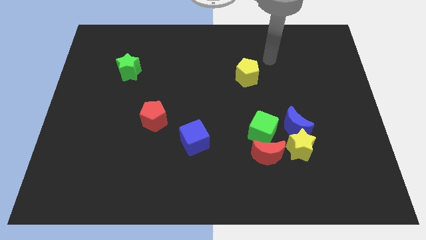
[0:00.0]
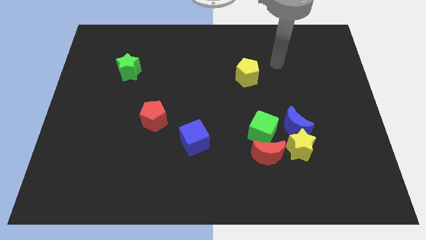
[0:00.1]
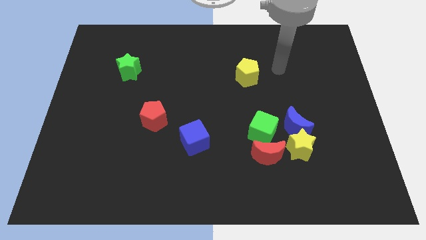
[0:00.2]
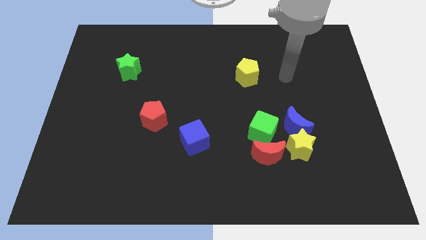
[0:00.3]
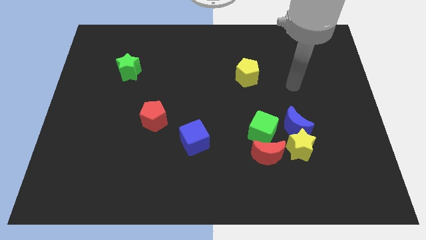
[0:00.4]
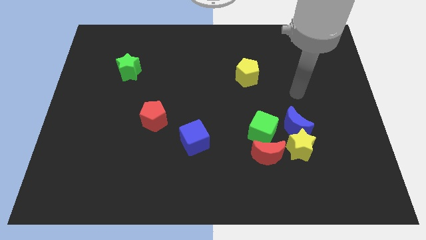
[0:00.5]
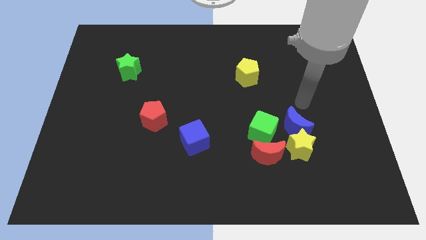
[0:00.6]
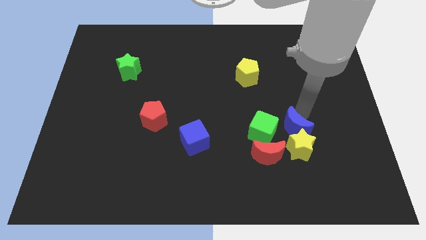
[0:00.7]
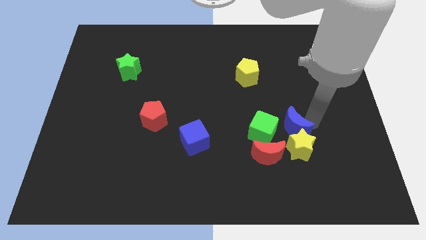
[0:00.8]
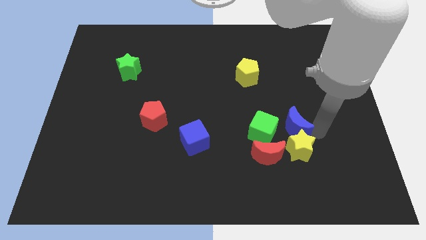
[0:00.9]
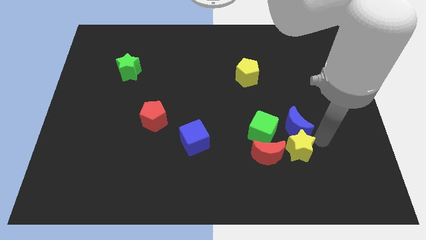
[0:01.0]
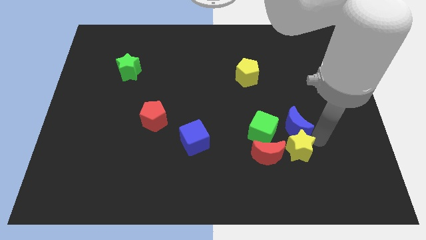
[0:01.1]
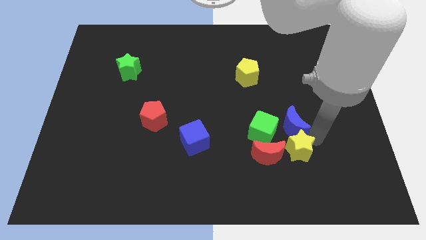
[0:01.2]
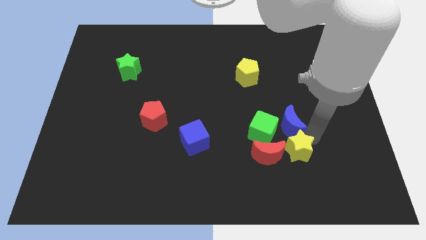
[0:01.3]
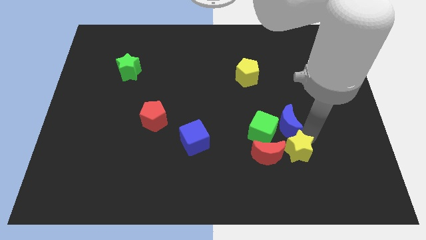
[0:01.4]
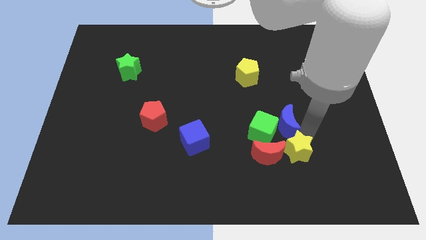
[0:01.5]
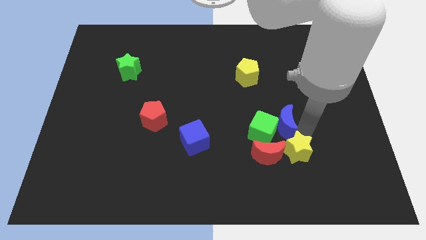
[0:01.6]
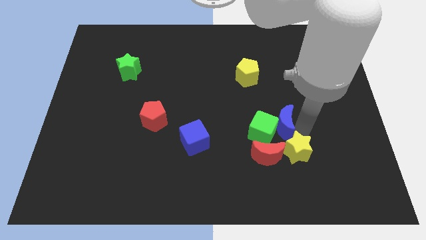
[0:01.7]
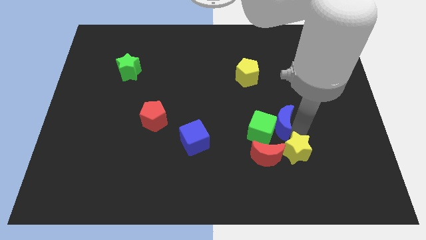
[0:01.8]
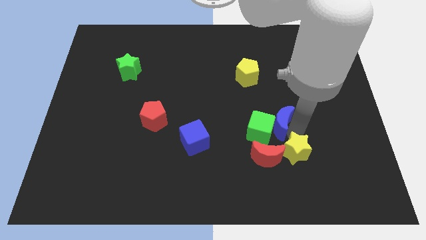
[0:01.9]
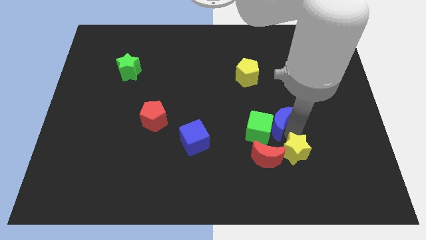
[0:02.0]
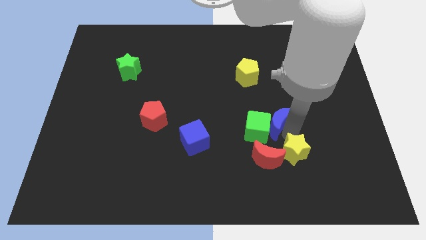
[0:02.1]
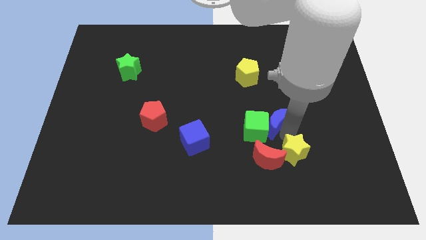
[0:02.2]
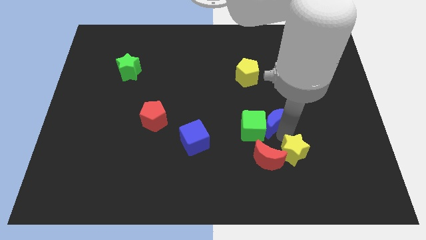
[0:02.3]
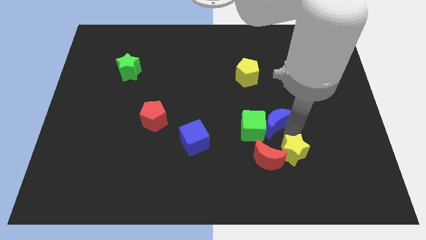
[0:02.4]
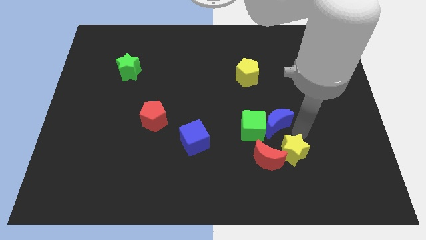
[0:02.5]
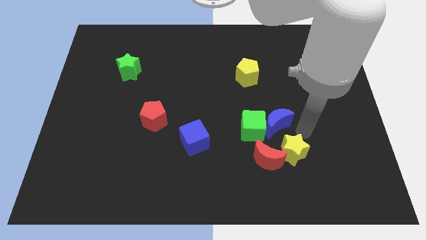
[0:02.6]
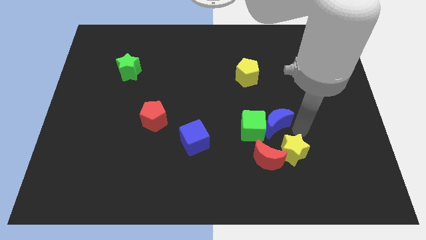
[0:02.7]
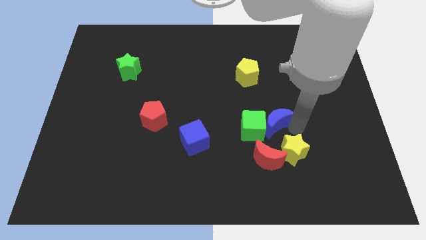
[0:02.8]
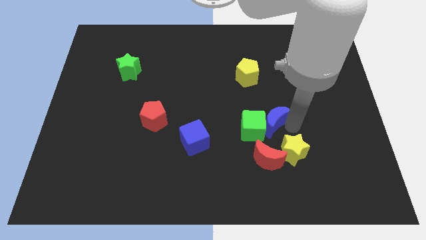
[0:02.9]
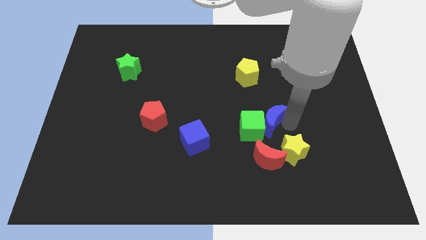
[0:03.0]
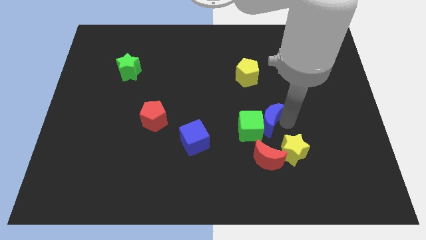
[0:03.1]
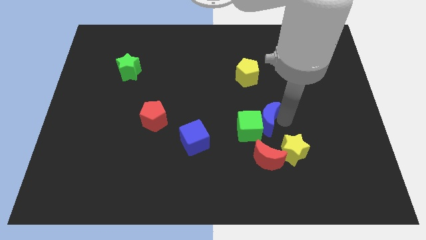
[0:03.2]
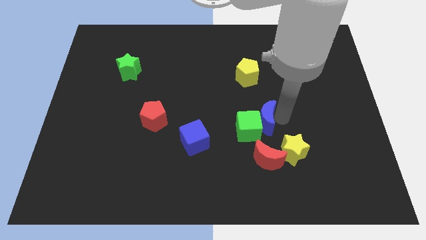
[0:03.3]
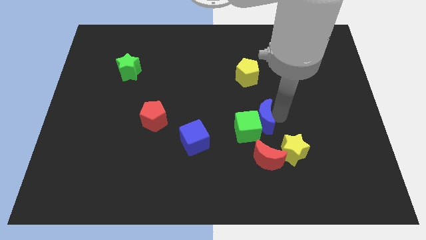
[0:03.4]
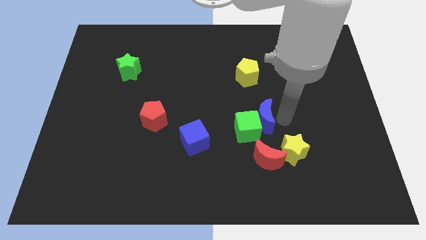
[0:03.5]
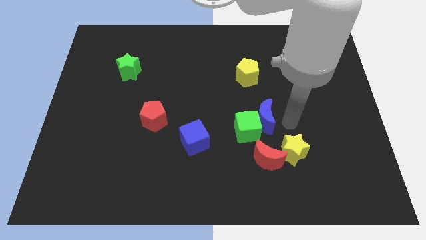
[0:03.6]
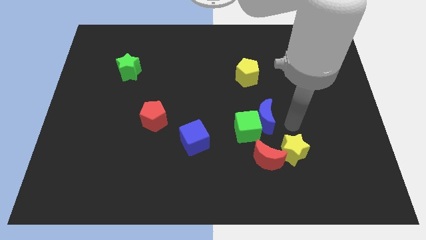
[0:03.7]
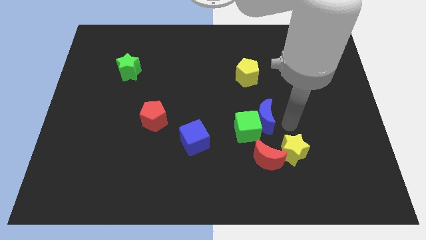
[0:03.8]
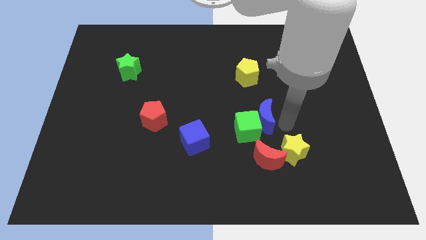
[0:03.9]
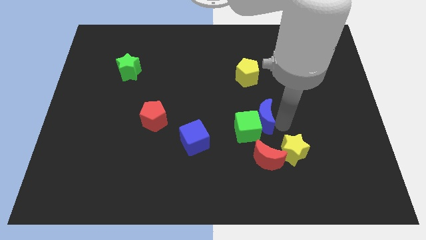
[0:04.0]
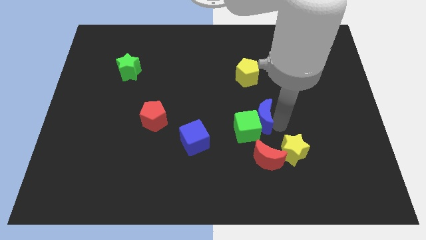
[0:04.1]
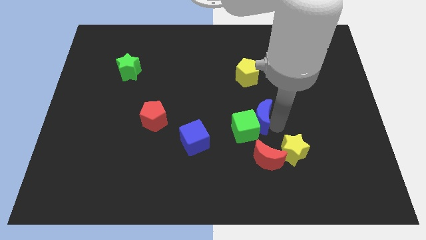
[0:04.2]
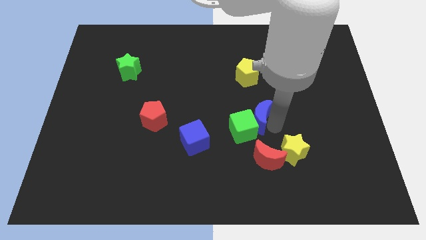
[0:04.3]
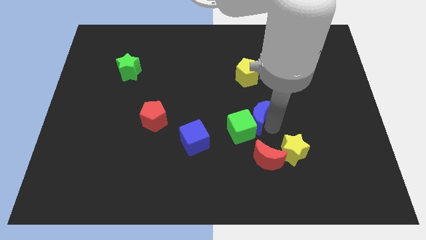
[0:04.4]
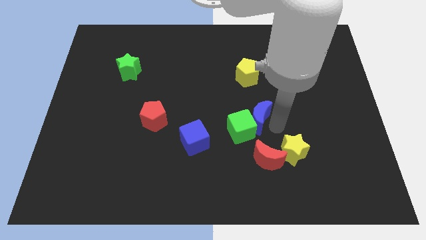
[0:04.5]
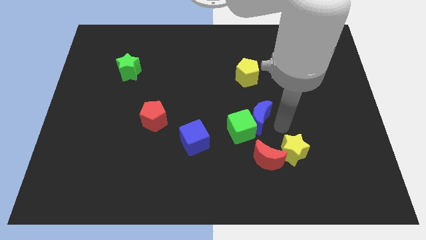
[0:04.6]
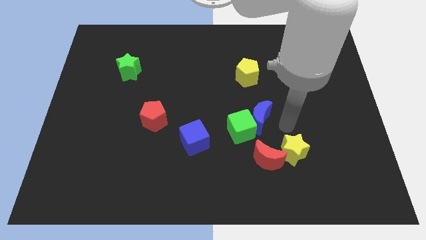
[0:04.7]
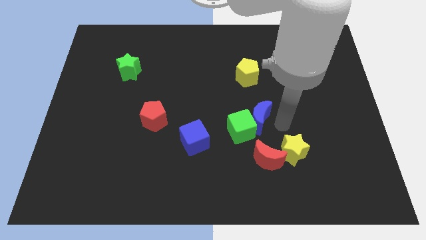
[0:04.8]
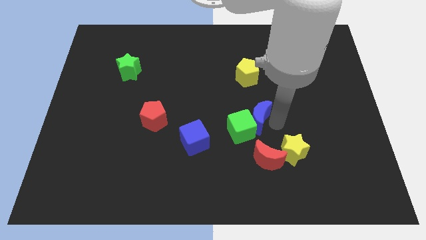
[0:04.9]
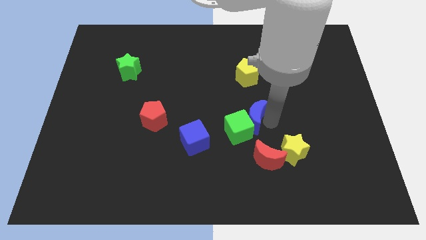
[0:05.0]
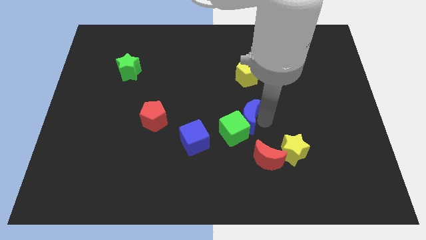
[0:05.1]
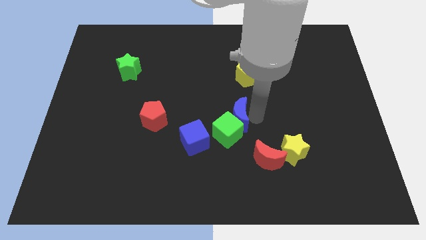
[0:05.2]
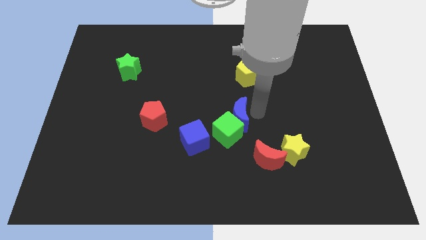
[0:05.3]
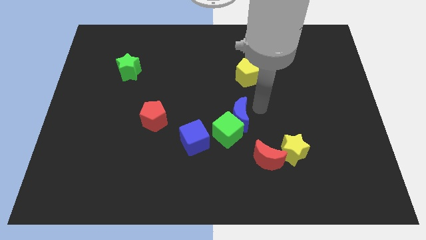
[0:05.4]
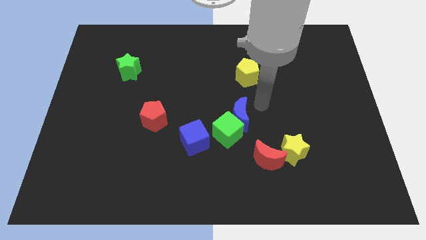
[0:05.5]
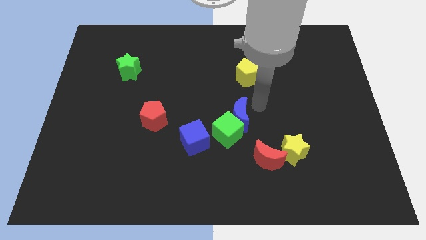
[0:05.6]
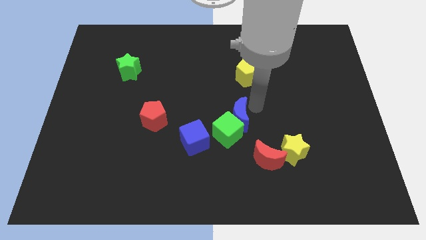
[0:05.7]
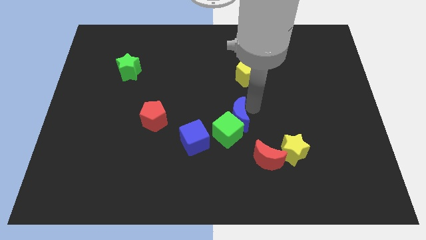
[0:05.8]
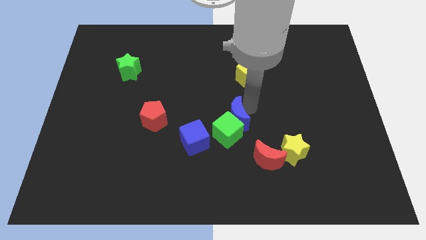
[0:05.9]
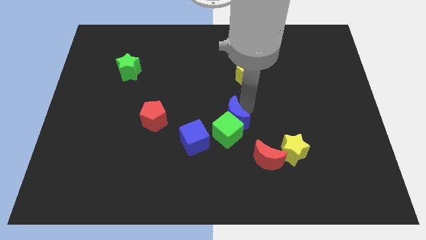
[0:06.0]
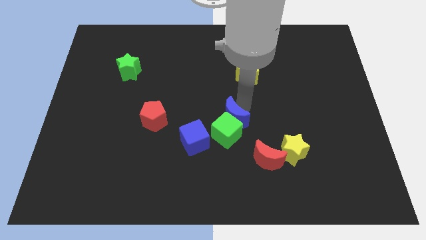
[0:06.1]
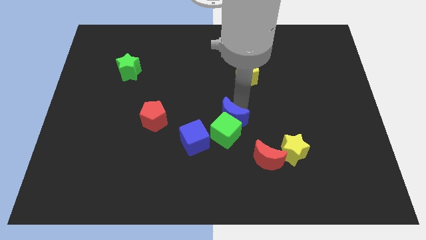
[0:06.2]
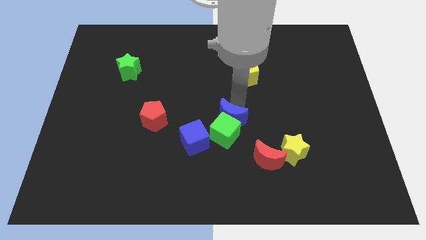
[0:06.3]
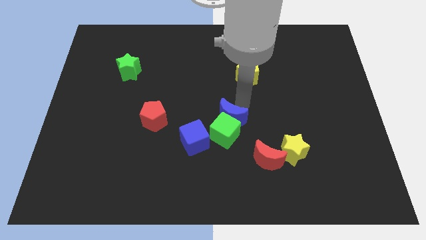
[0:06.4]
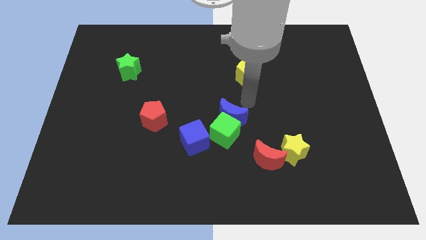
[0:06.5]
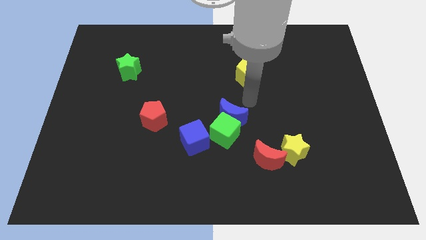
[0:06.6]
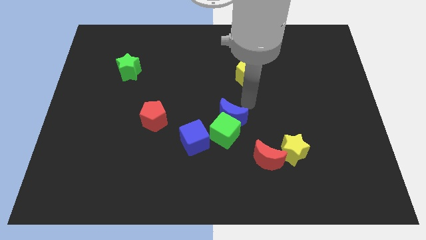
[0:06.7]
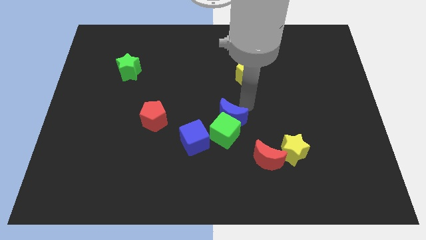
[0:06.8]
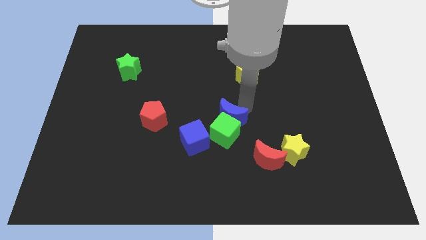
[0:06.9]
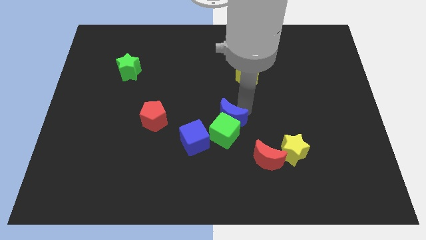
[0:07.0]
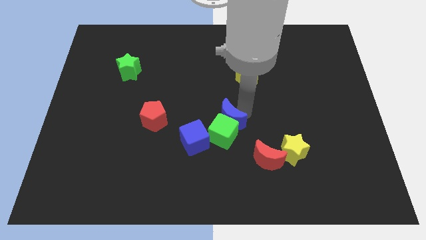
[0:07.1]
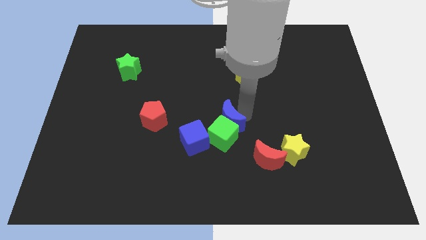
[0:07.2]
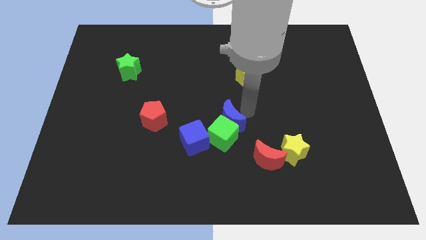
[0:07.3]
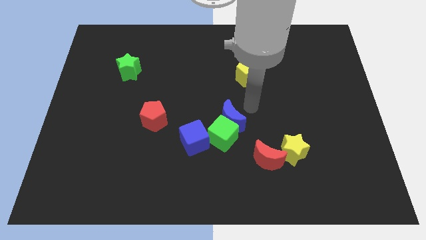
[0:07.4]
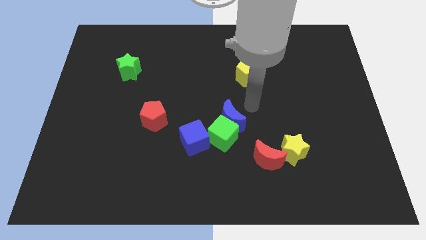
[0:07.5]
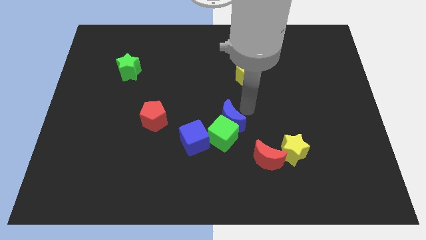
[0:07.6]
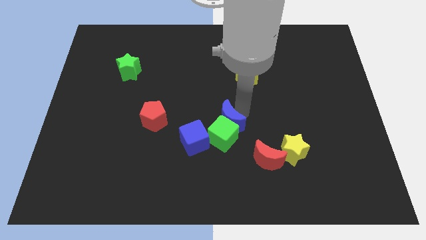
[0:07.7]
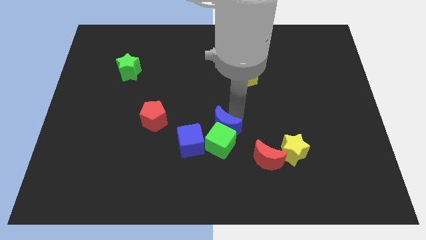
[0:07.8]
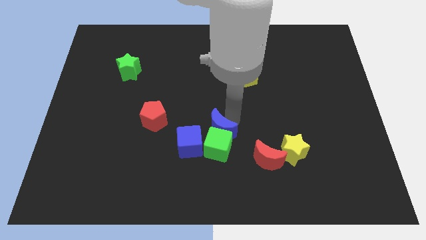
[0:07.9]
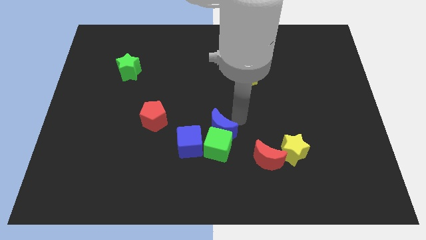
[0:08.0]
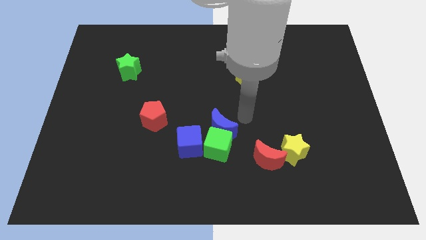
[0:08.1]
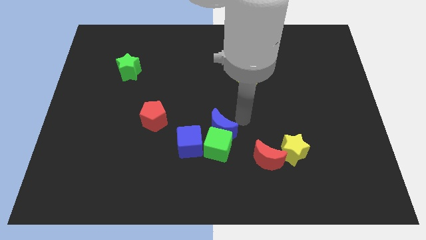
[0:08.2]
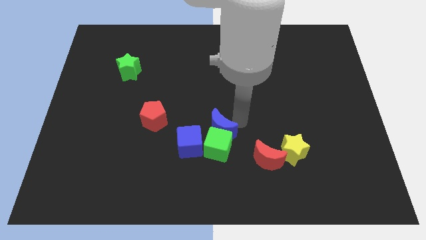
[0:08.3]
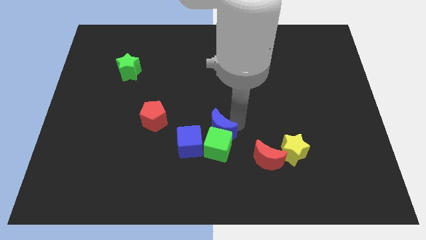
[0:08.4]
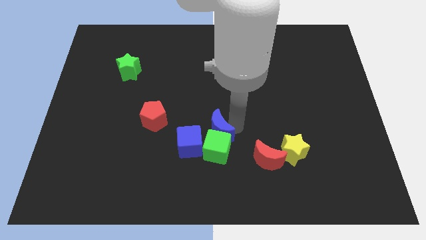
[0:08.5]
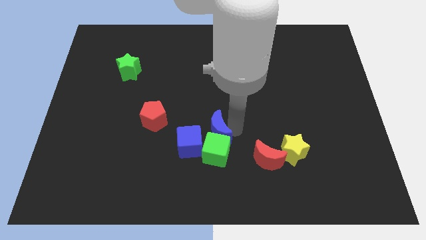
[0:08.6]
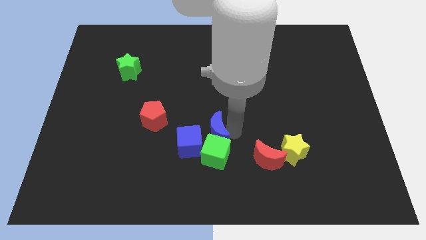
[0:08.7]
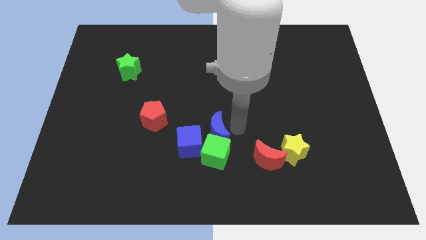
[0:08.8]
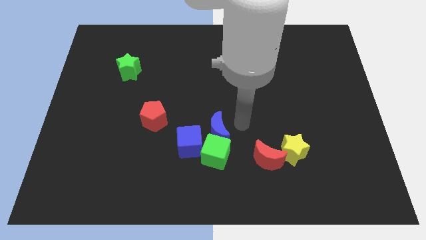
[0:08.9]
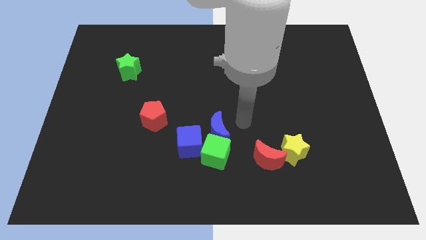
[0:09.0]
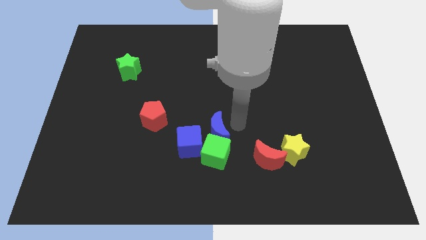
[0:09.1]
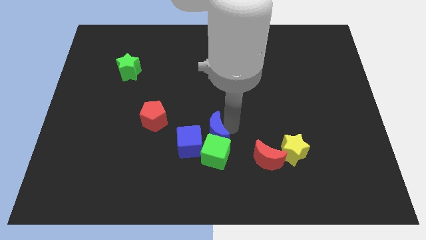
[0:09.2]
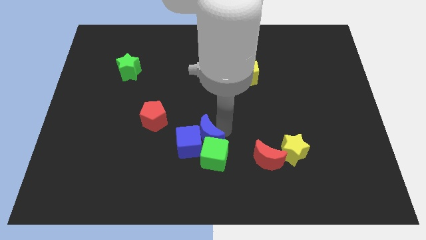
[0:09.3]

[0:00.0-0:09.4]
put the blue moon to the blue cube
